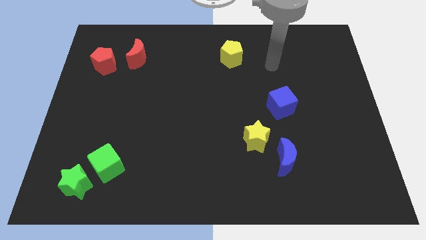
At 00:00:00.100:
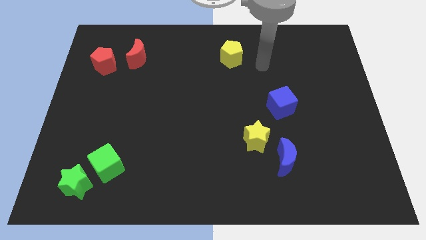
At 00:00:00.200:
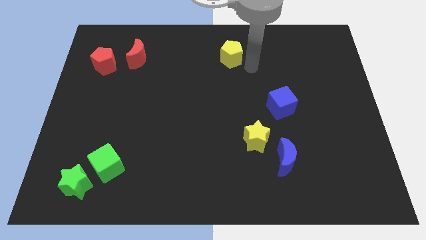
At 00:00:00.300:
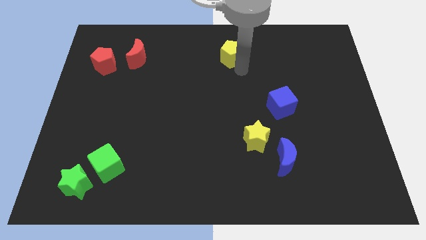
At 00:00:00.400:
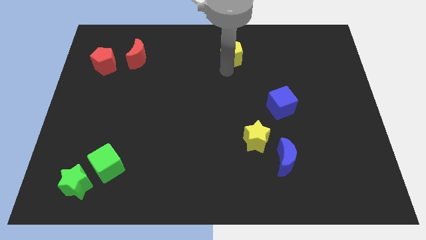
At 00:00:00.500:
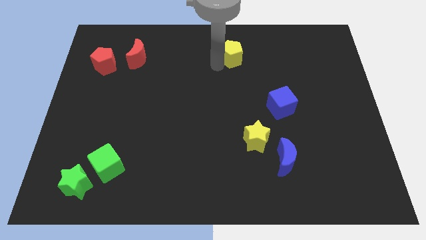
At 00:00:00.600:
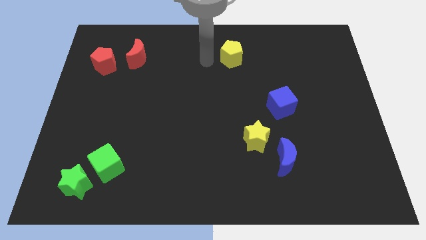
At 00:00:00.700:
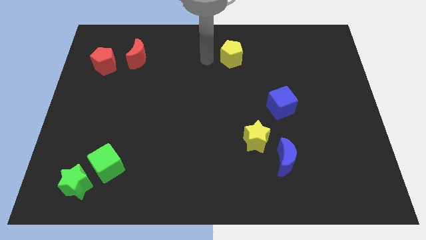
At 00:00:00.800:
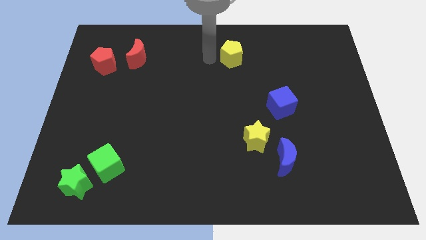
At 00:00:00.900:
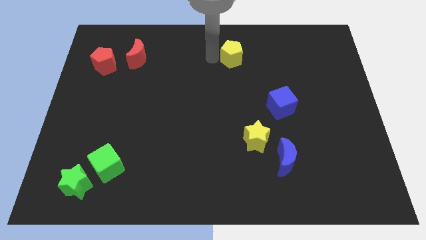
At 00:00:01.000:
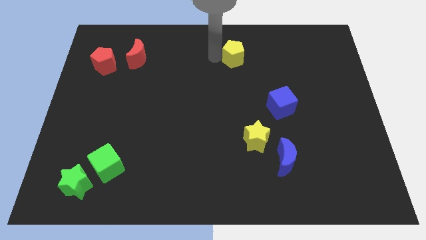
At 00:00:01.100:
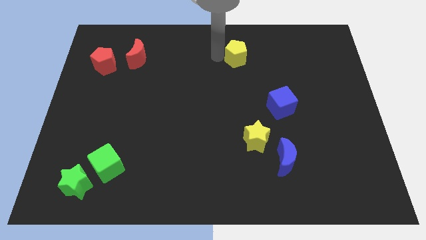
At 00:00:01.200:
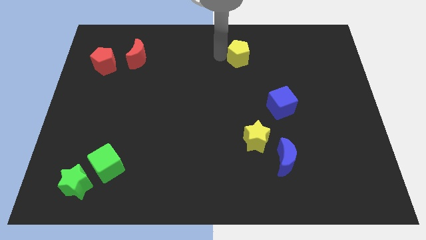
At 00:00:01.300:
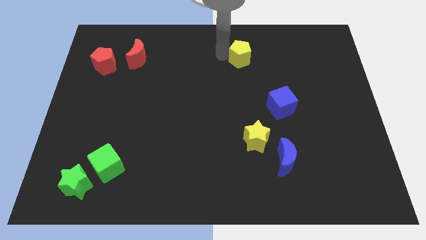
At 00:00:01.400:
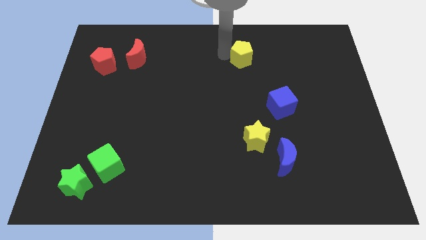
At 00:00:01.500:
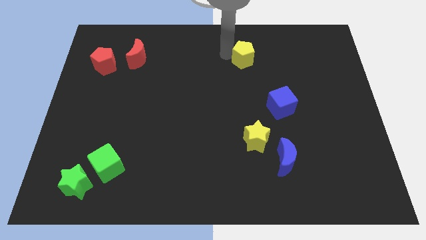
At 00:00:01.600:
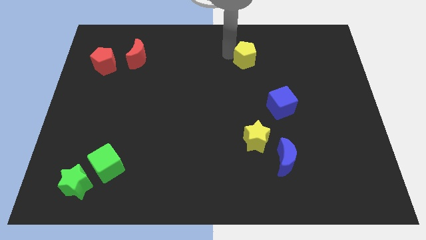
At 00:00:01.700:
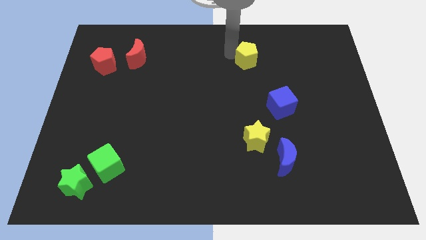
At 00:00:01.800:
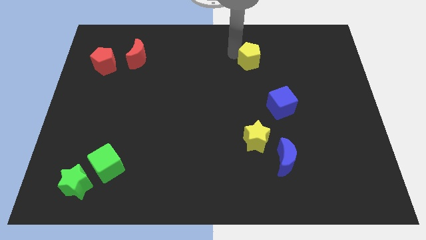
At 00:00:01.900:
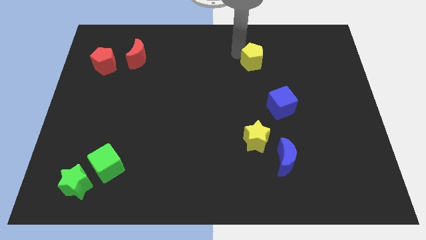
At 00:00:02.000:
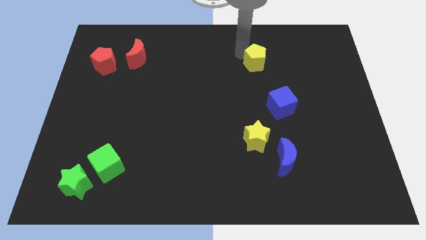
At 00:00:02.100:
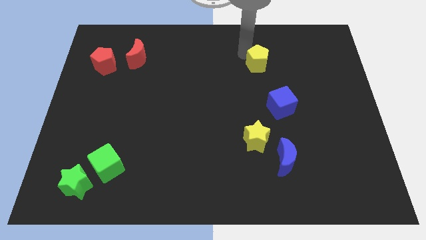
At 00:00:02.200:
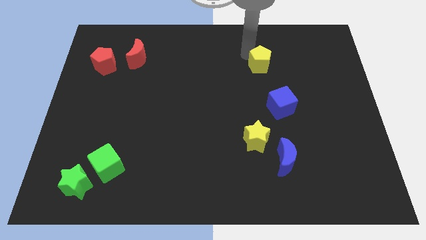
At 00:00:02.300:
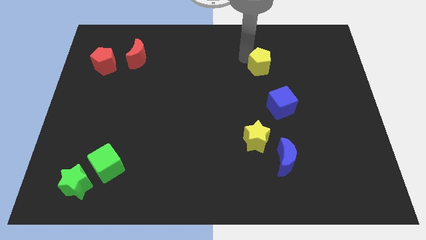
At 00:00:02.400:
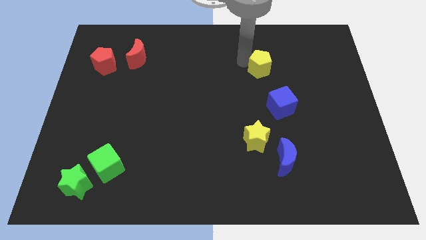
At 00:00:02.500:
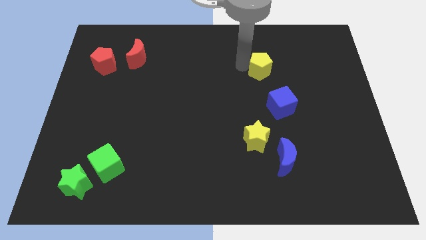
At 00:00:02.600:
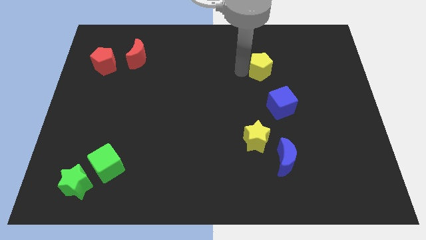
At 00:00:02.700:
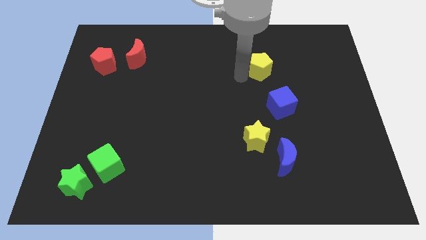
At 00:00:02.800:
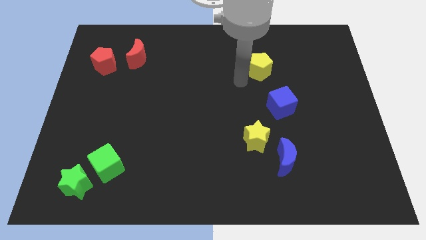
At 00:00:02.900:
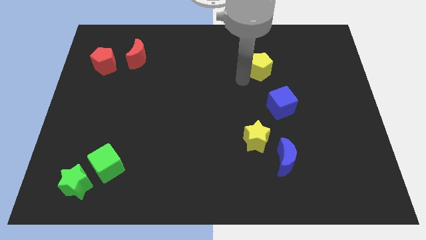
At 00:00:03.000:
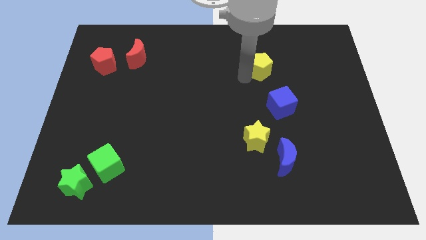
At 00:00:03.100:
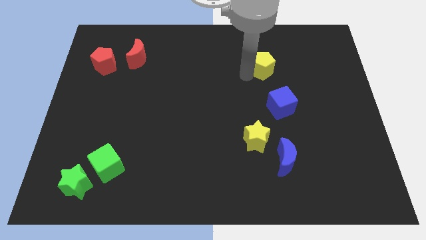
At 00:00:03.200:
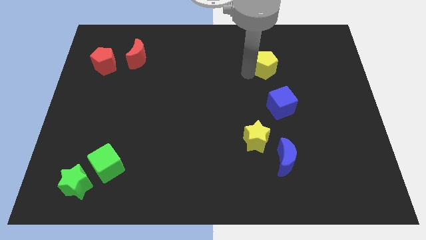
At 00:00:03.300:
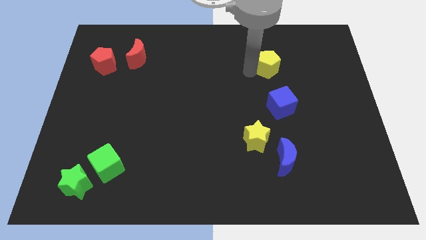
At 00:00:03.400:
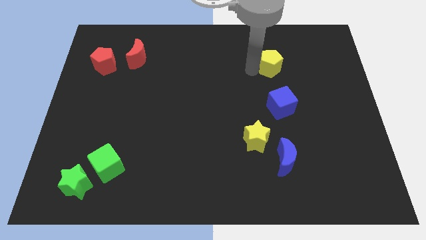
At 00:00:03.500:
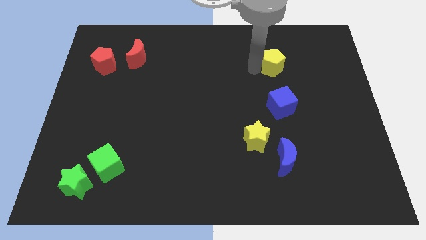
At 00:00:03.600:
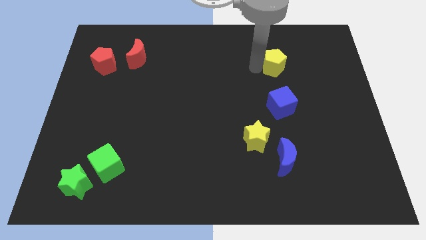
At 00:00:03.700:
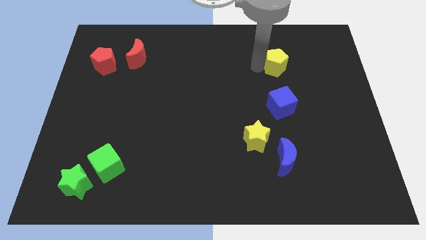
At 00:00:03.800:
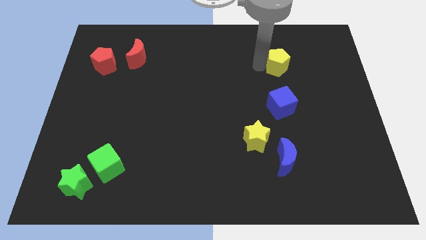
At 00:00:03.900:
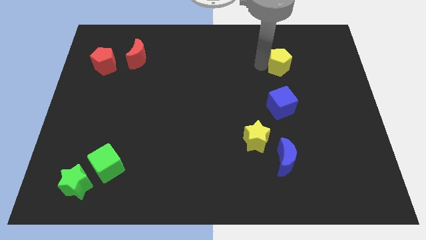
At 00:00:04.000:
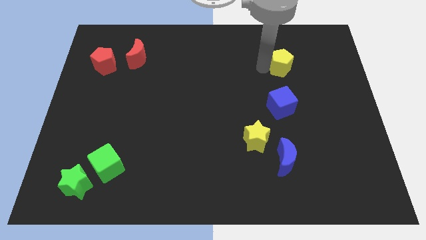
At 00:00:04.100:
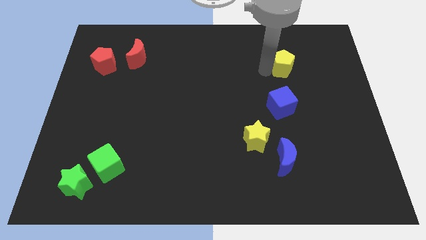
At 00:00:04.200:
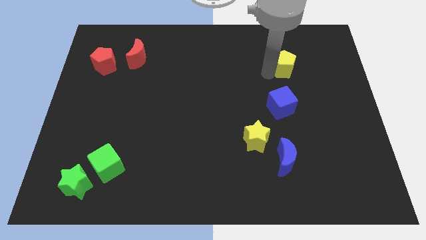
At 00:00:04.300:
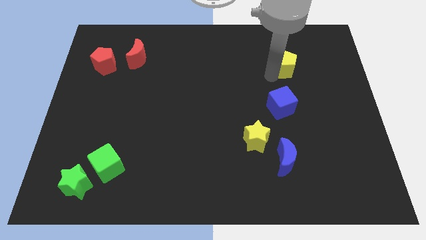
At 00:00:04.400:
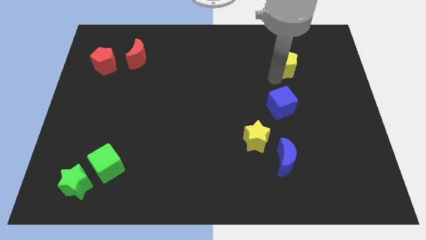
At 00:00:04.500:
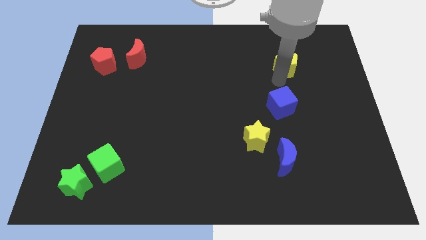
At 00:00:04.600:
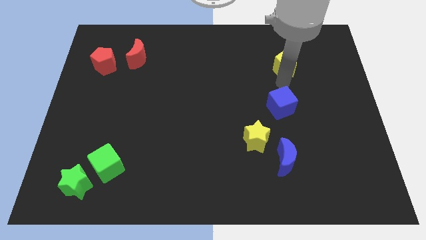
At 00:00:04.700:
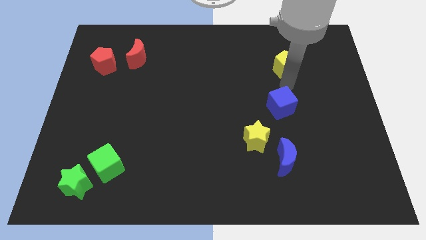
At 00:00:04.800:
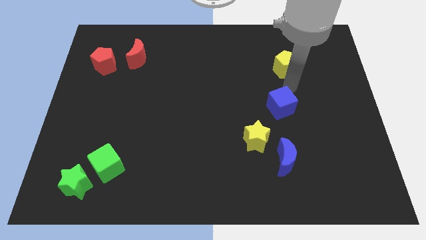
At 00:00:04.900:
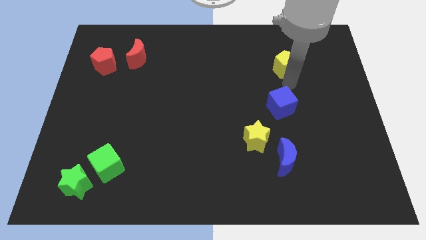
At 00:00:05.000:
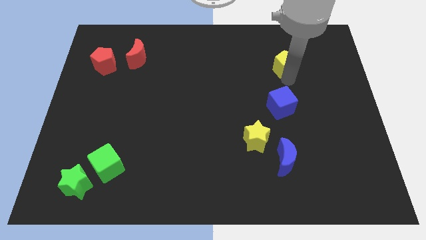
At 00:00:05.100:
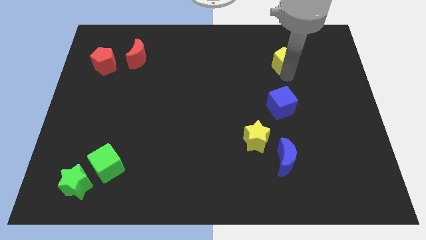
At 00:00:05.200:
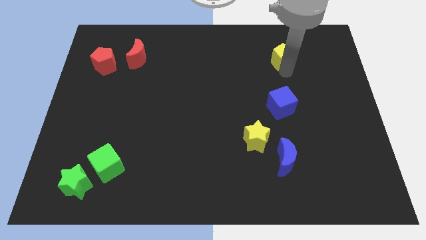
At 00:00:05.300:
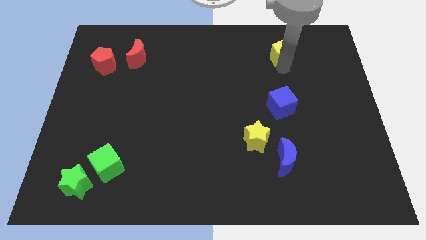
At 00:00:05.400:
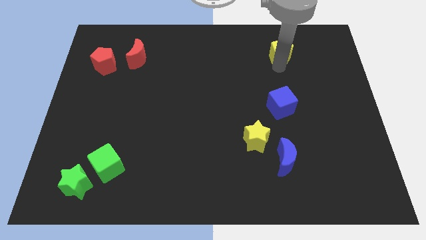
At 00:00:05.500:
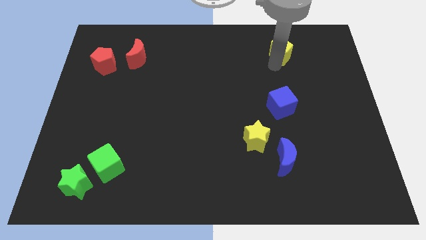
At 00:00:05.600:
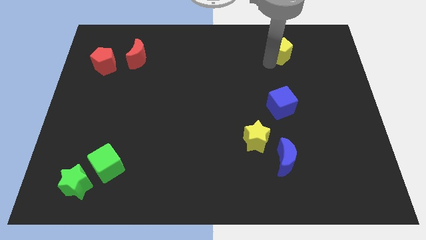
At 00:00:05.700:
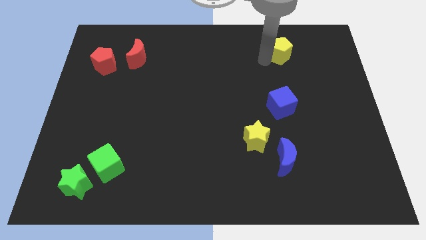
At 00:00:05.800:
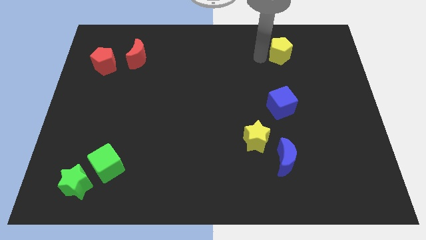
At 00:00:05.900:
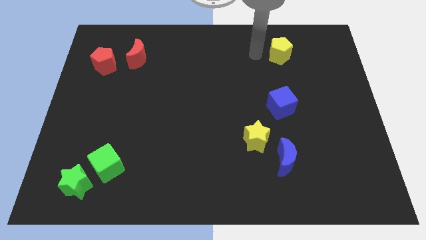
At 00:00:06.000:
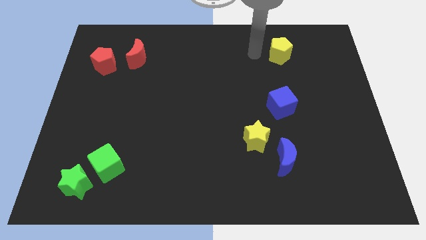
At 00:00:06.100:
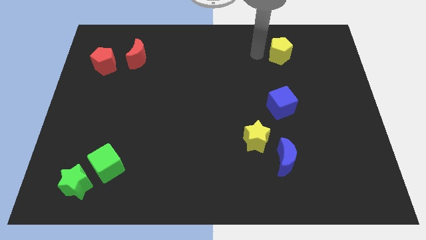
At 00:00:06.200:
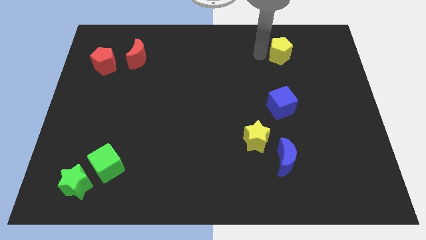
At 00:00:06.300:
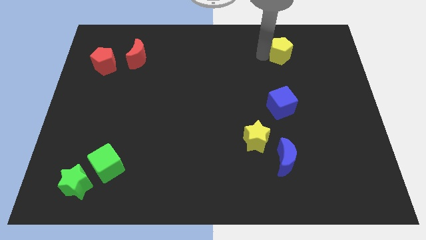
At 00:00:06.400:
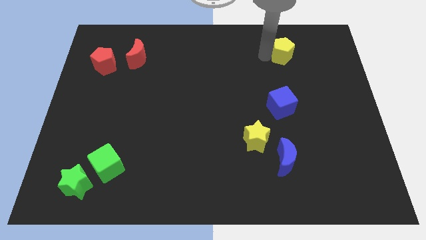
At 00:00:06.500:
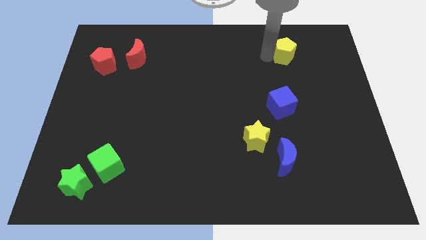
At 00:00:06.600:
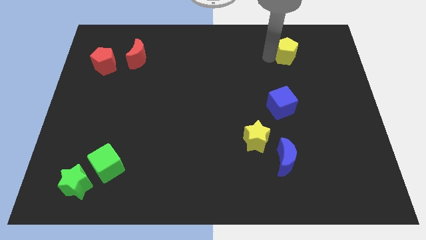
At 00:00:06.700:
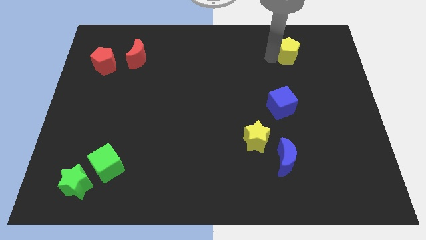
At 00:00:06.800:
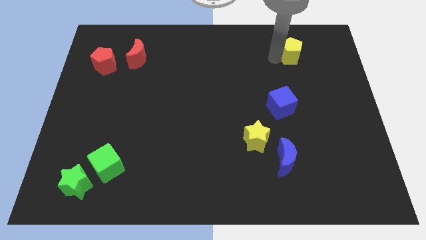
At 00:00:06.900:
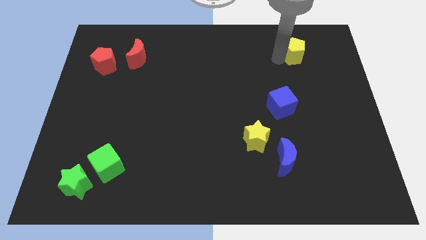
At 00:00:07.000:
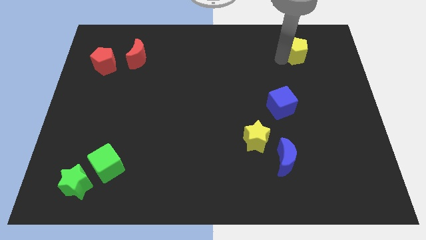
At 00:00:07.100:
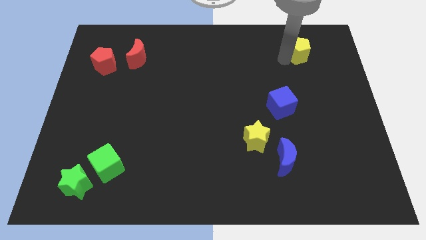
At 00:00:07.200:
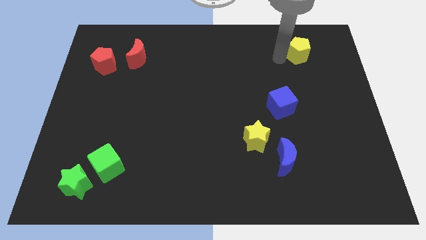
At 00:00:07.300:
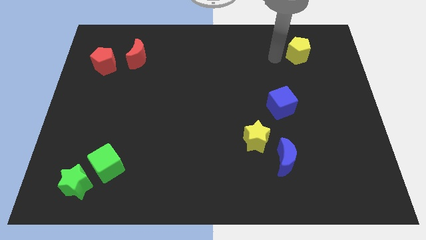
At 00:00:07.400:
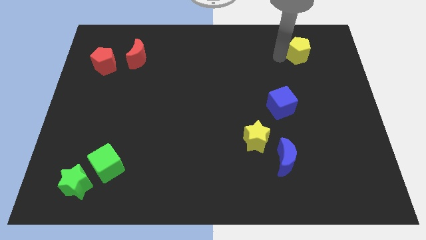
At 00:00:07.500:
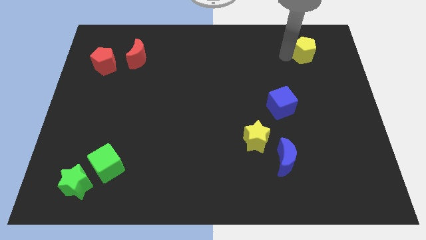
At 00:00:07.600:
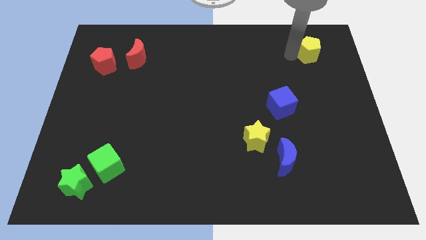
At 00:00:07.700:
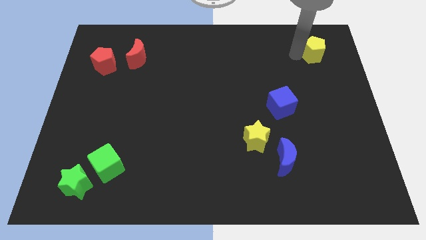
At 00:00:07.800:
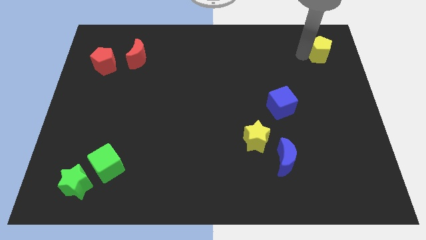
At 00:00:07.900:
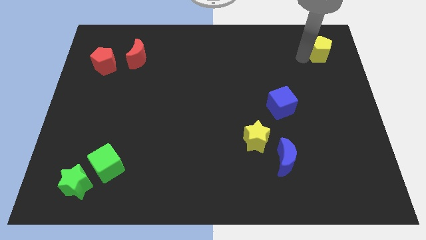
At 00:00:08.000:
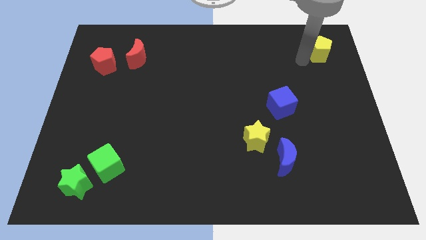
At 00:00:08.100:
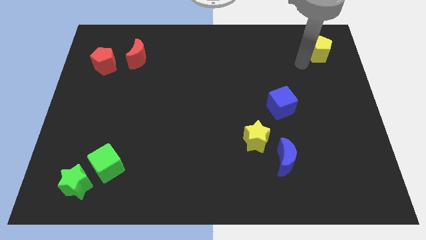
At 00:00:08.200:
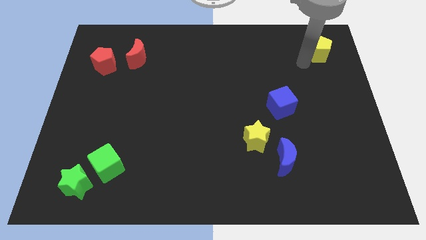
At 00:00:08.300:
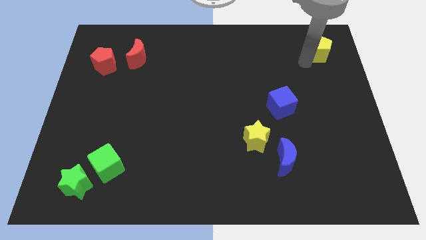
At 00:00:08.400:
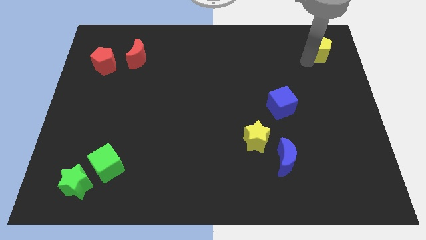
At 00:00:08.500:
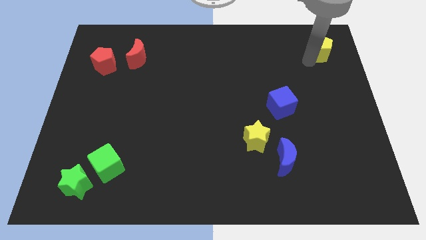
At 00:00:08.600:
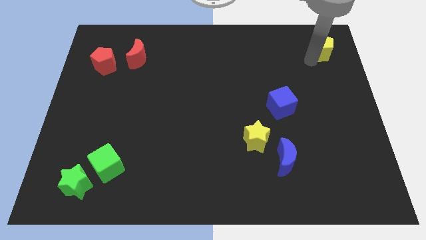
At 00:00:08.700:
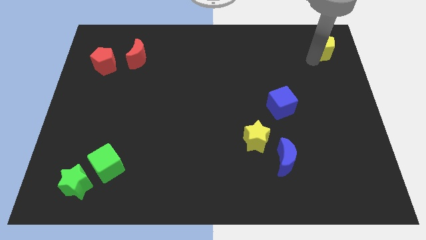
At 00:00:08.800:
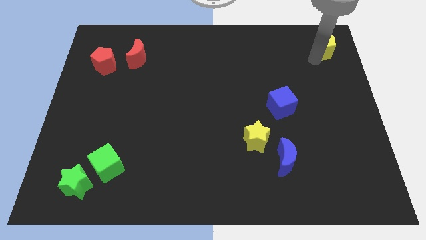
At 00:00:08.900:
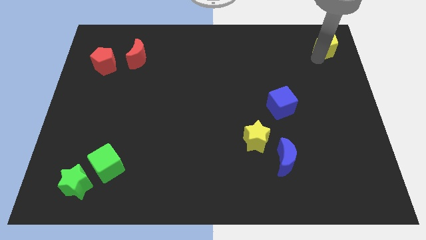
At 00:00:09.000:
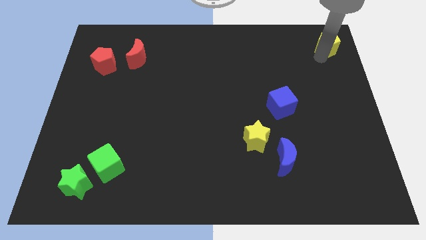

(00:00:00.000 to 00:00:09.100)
move the yellow pentagon to the top right
